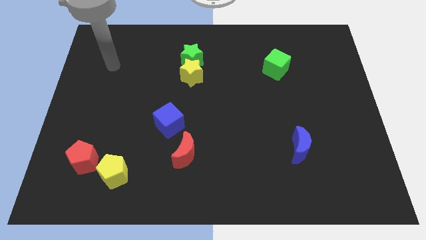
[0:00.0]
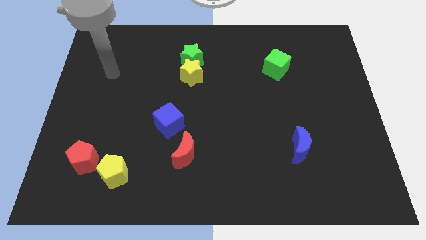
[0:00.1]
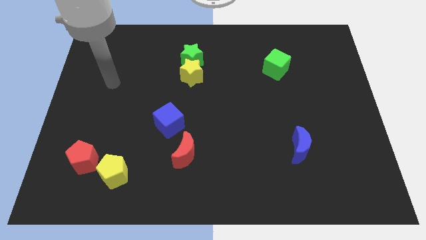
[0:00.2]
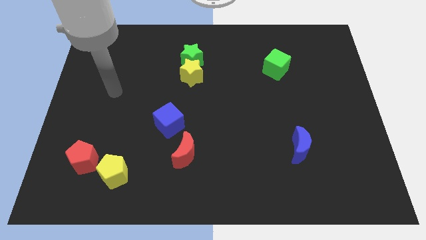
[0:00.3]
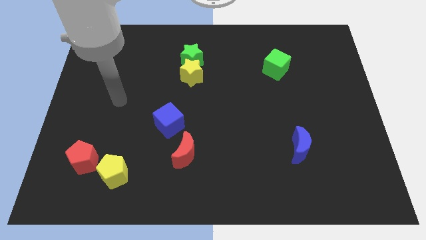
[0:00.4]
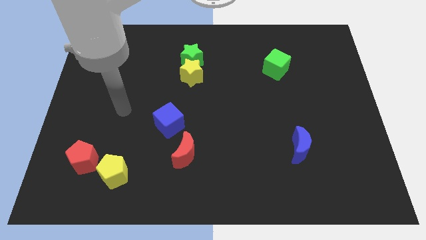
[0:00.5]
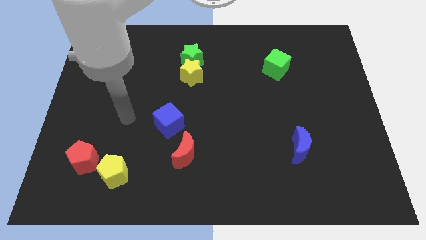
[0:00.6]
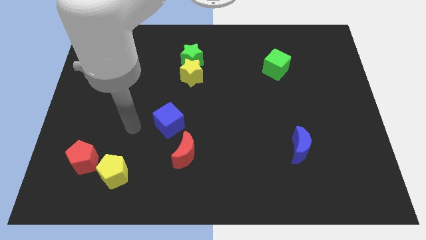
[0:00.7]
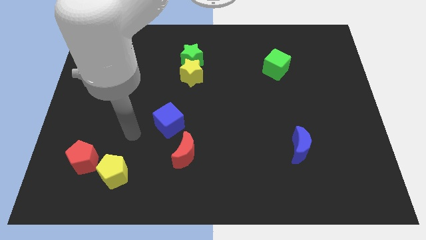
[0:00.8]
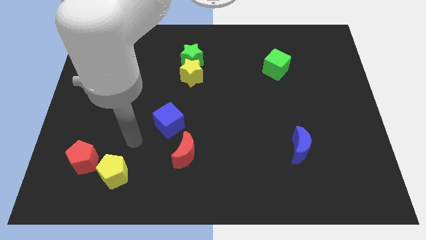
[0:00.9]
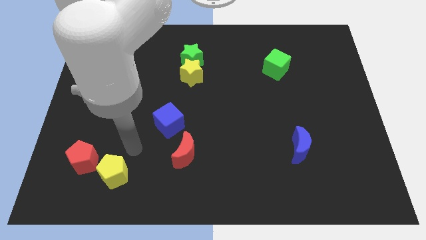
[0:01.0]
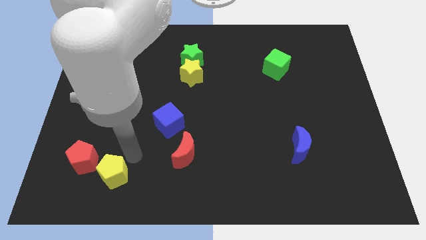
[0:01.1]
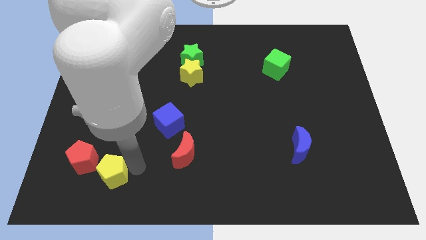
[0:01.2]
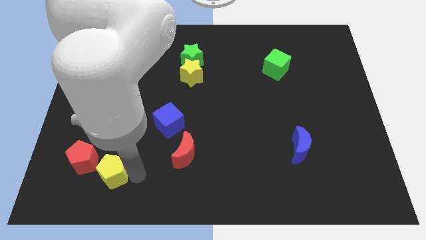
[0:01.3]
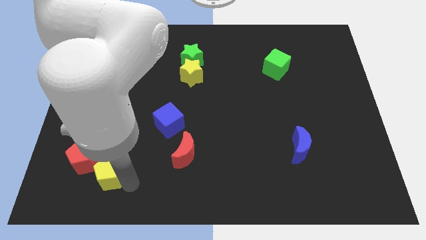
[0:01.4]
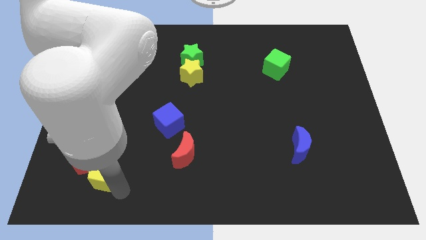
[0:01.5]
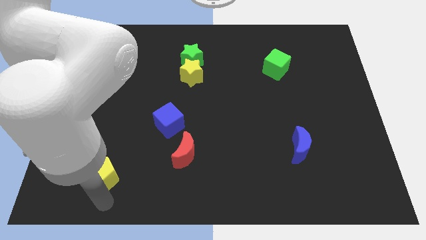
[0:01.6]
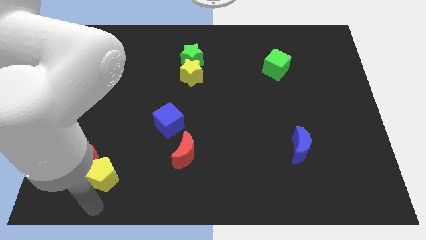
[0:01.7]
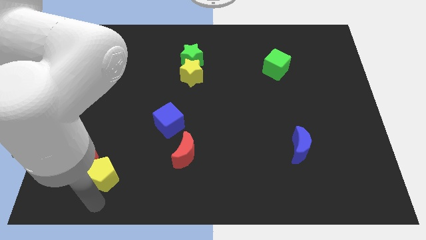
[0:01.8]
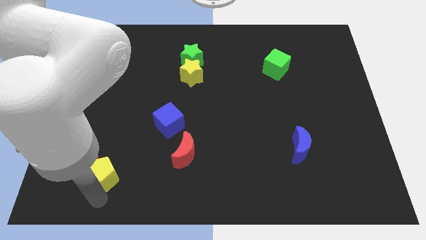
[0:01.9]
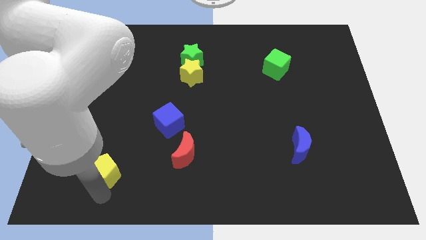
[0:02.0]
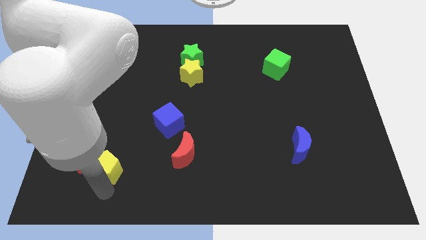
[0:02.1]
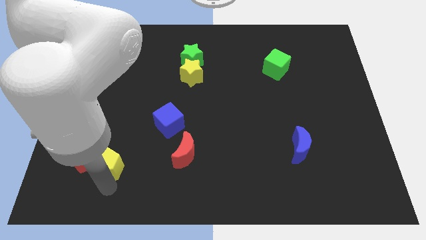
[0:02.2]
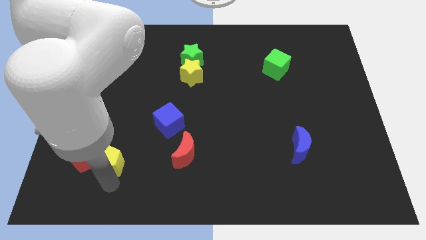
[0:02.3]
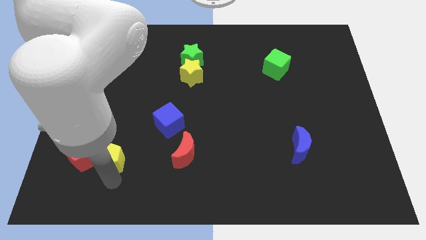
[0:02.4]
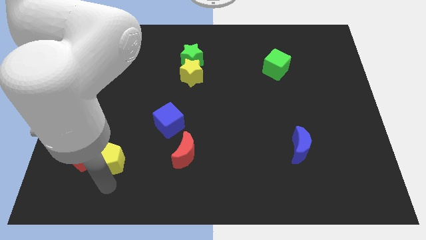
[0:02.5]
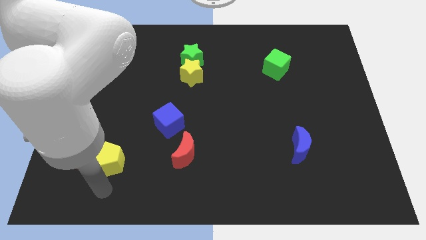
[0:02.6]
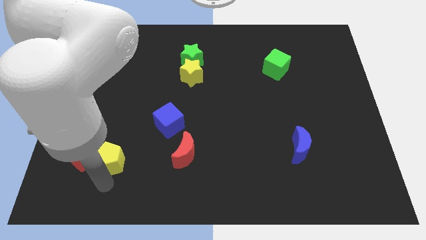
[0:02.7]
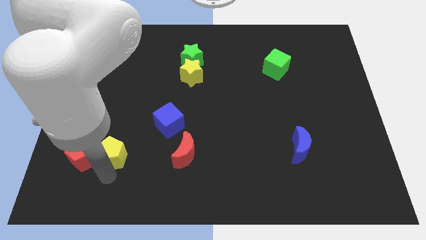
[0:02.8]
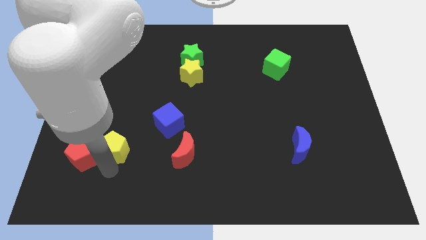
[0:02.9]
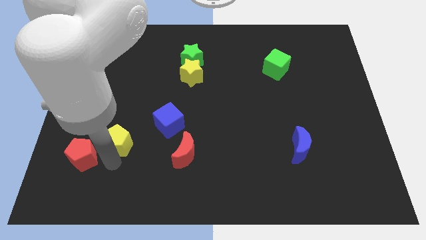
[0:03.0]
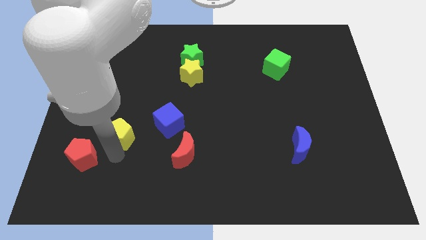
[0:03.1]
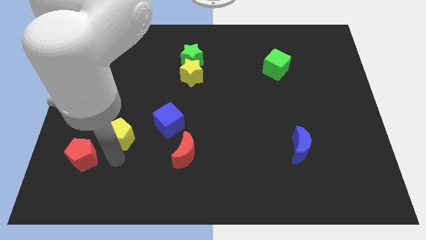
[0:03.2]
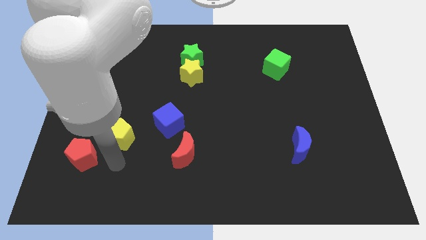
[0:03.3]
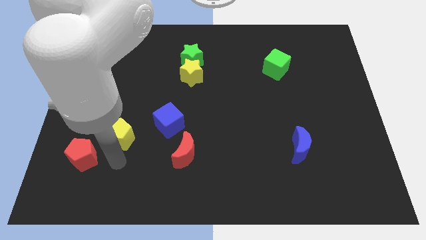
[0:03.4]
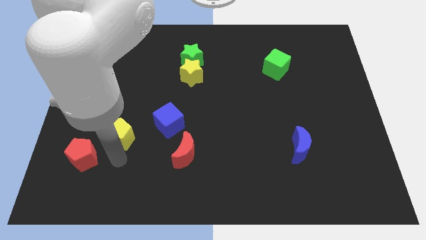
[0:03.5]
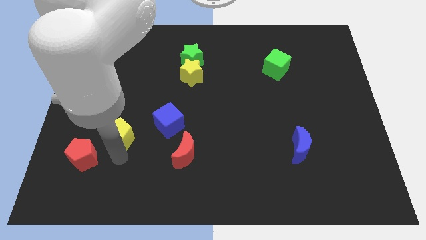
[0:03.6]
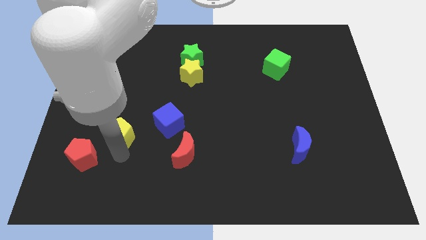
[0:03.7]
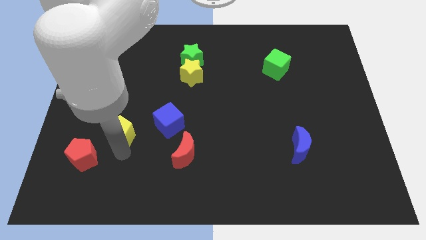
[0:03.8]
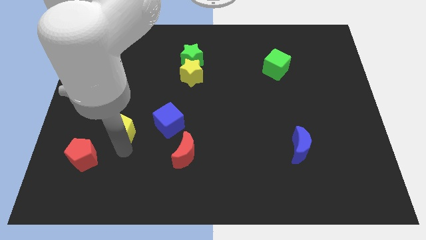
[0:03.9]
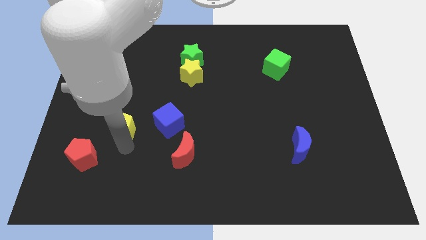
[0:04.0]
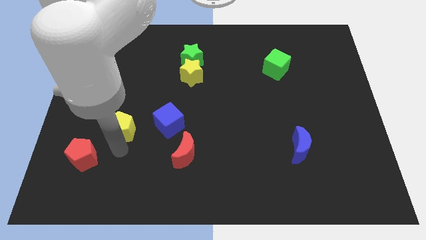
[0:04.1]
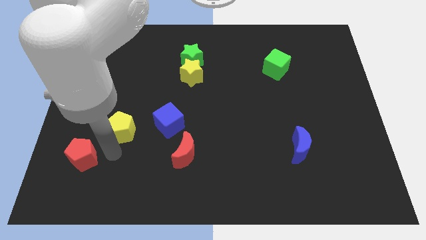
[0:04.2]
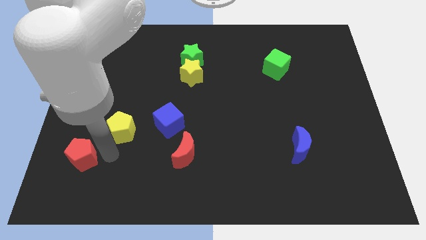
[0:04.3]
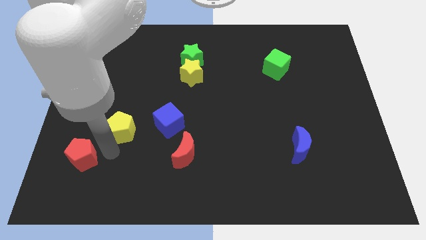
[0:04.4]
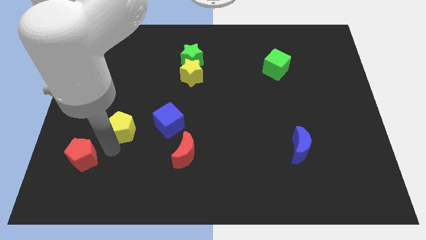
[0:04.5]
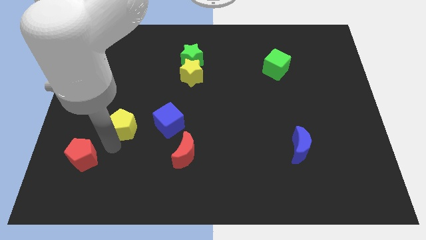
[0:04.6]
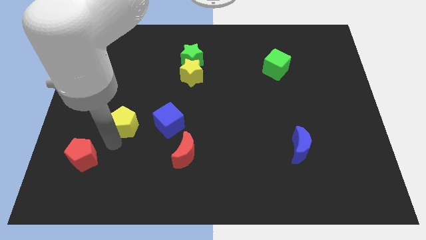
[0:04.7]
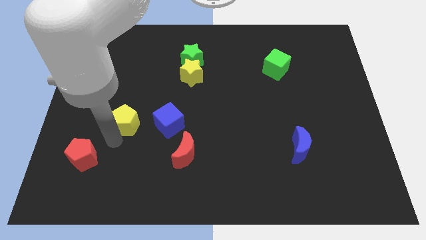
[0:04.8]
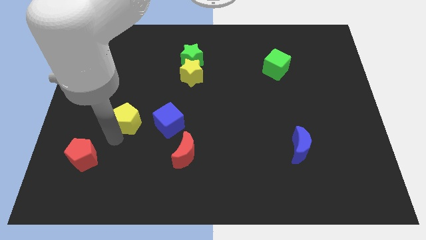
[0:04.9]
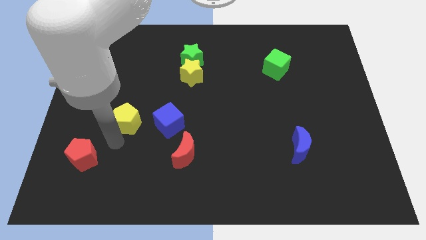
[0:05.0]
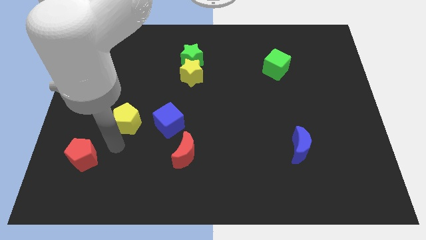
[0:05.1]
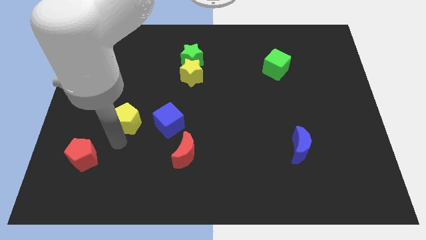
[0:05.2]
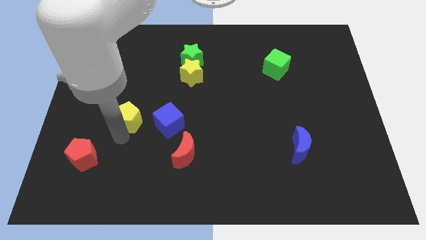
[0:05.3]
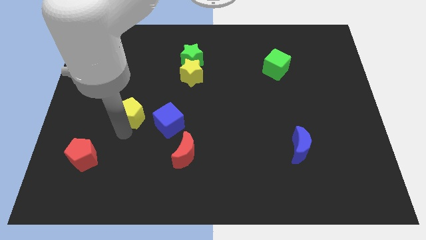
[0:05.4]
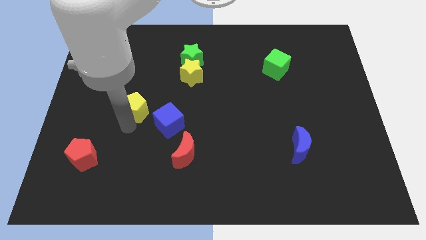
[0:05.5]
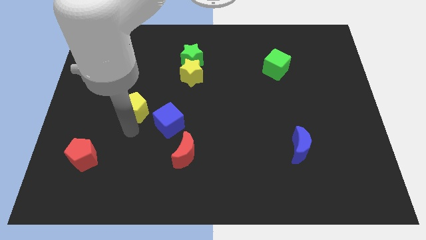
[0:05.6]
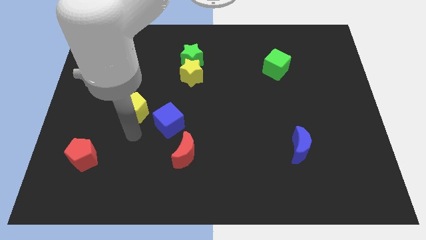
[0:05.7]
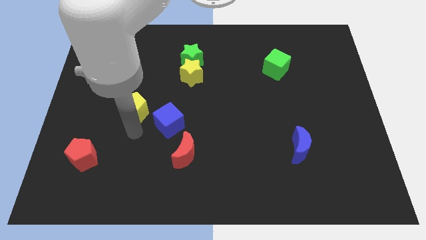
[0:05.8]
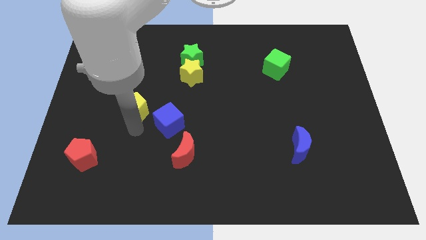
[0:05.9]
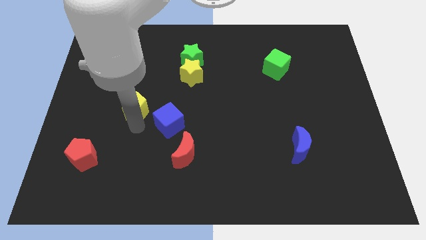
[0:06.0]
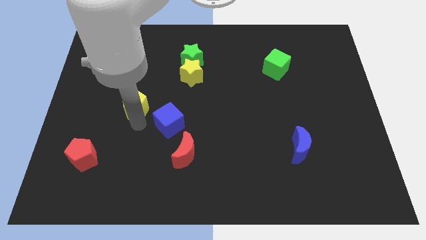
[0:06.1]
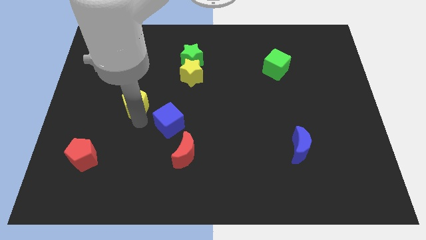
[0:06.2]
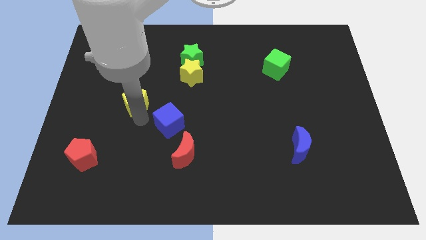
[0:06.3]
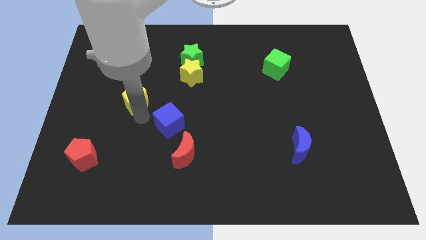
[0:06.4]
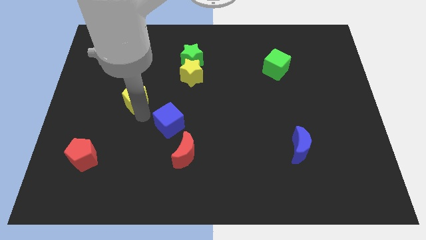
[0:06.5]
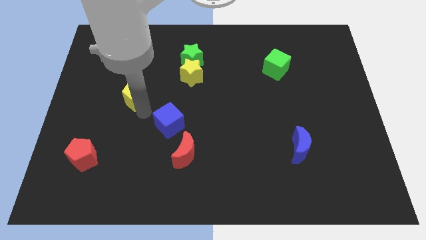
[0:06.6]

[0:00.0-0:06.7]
slide the yellow pentagon upwards

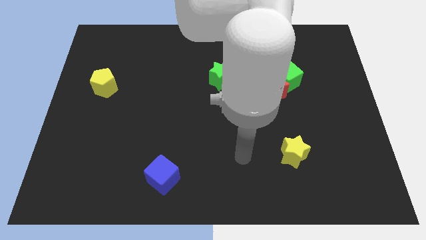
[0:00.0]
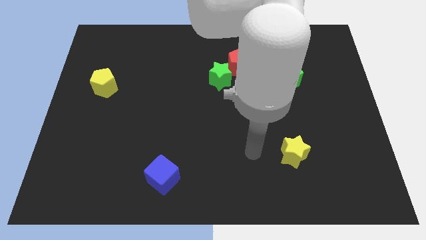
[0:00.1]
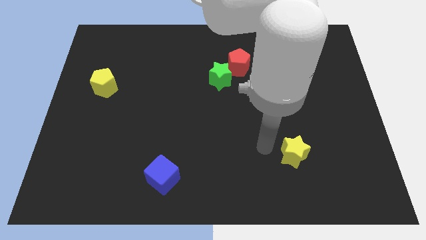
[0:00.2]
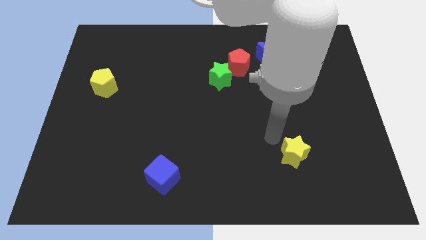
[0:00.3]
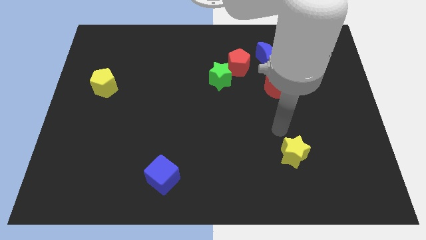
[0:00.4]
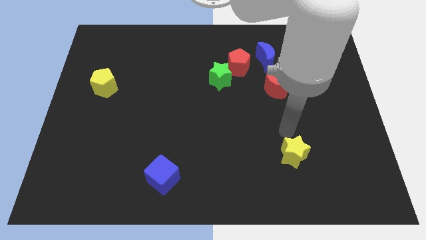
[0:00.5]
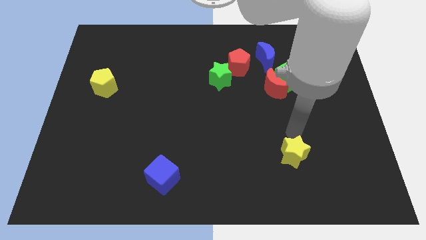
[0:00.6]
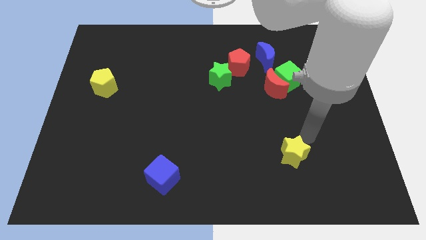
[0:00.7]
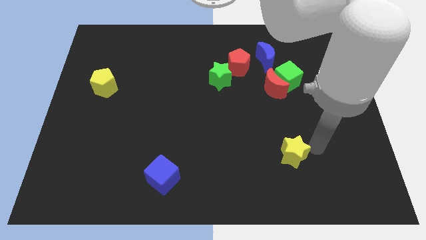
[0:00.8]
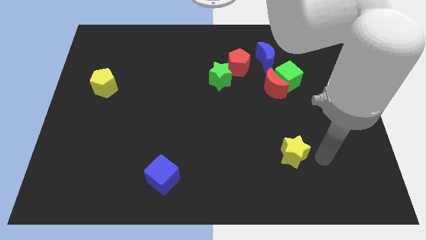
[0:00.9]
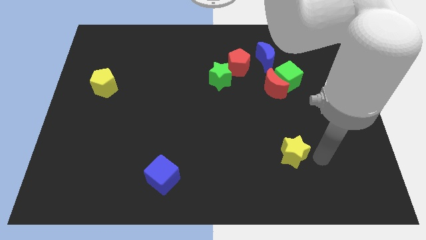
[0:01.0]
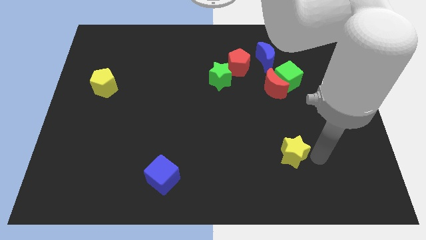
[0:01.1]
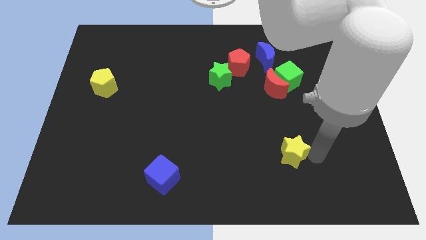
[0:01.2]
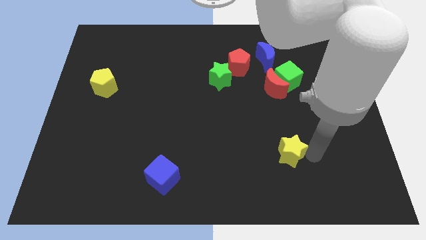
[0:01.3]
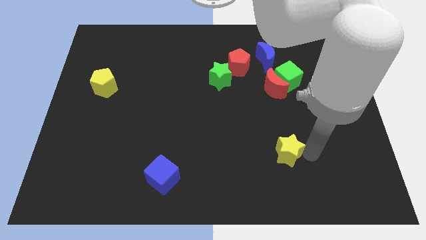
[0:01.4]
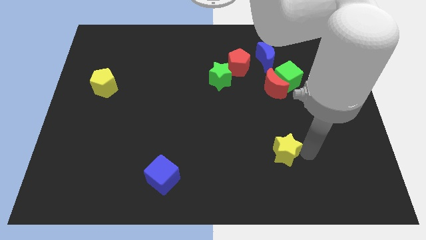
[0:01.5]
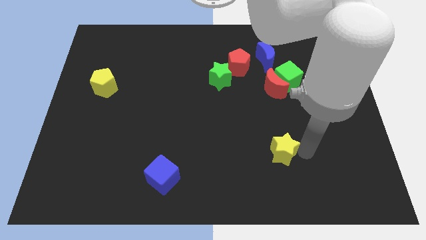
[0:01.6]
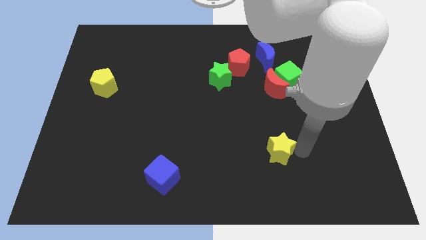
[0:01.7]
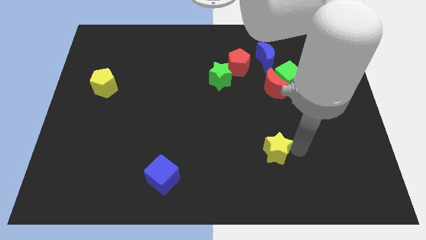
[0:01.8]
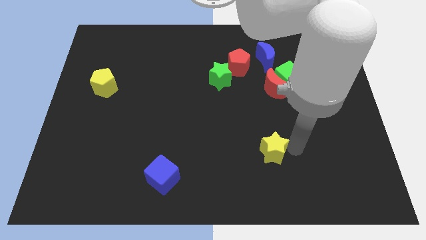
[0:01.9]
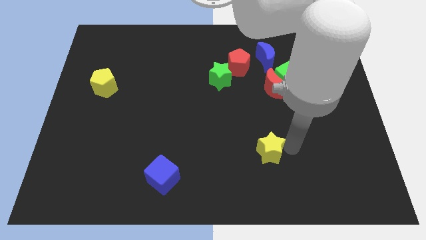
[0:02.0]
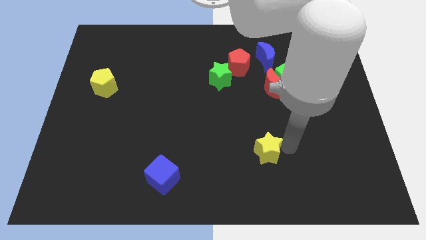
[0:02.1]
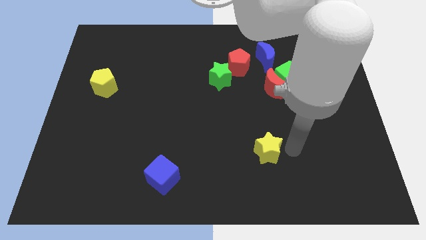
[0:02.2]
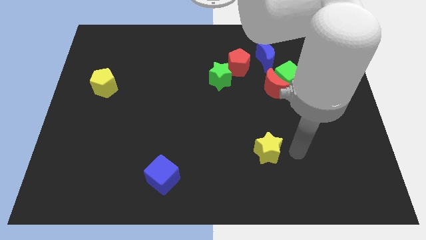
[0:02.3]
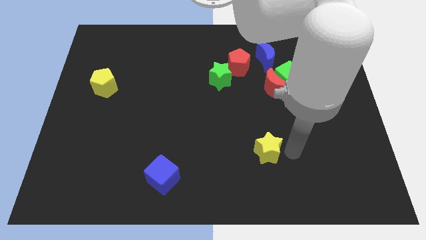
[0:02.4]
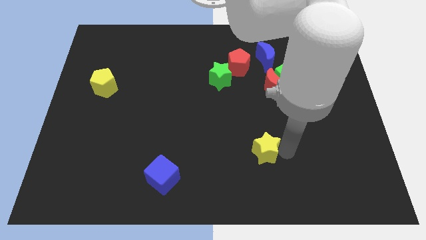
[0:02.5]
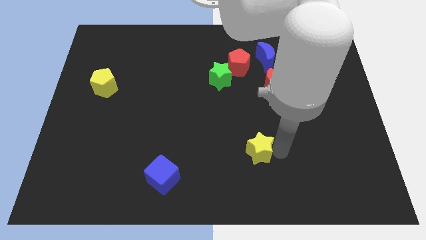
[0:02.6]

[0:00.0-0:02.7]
move the yellow star left a little bit
